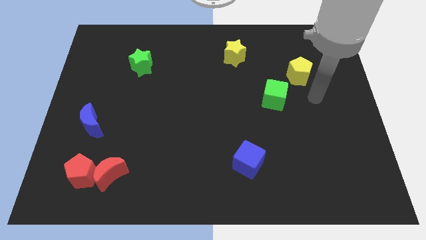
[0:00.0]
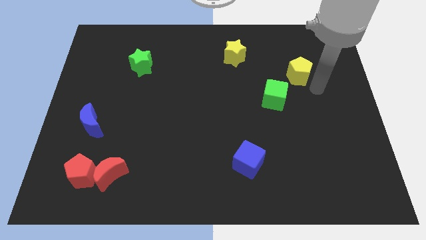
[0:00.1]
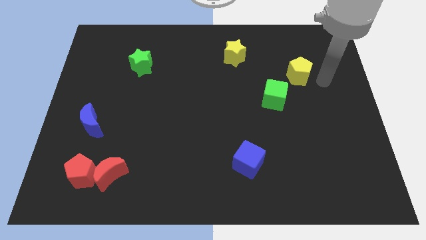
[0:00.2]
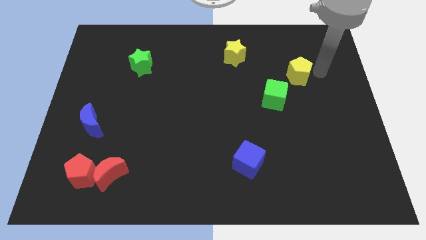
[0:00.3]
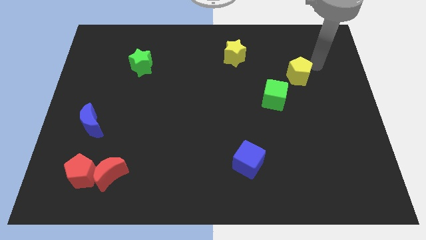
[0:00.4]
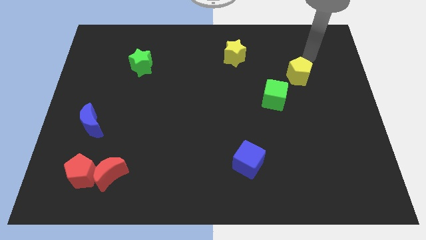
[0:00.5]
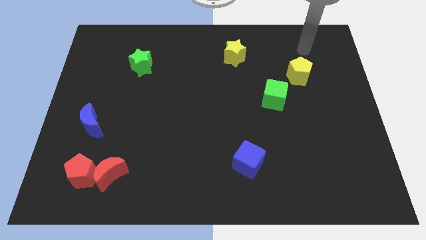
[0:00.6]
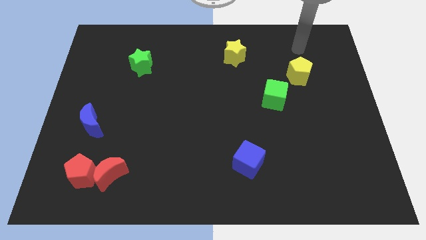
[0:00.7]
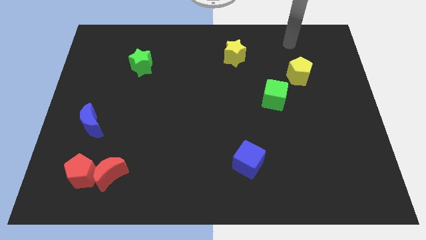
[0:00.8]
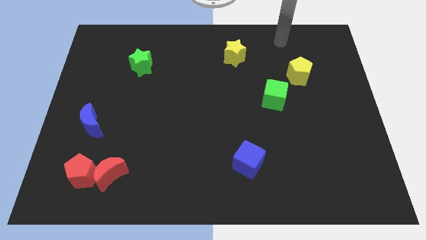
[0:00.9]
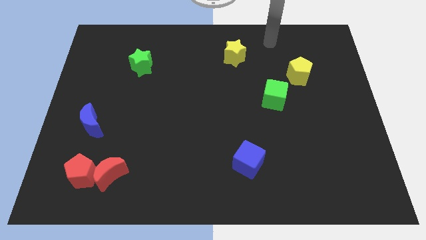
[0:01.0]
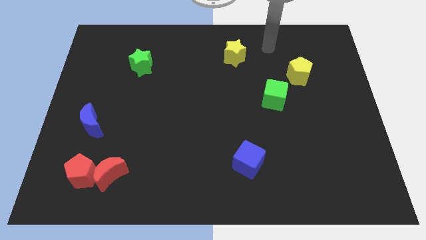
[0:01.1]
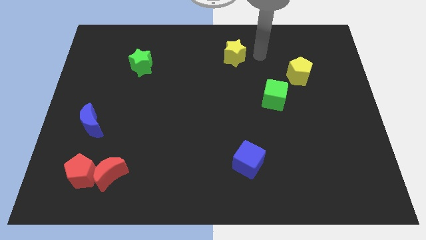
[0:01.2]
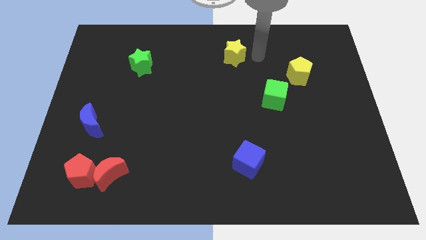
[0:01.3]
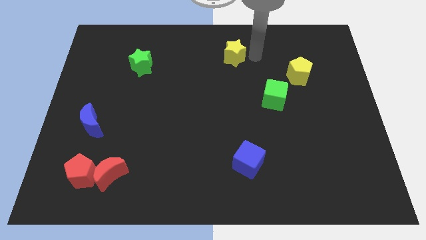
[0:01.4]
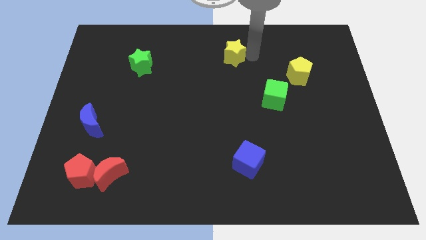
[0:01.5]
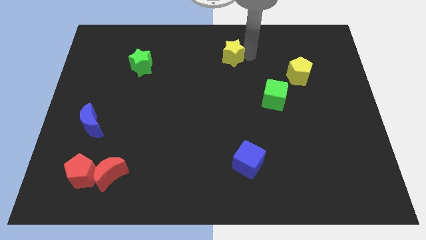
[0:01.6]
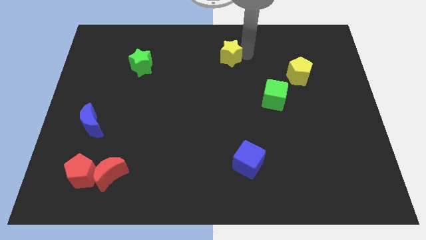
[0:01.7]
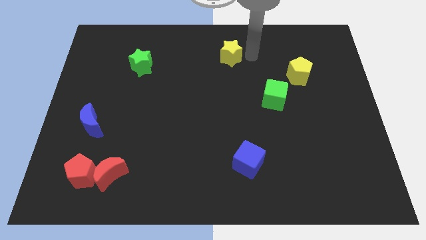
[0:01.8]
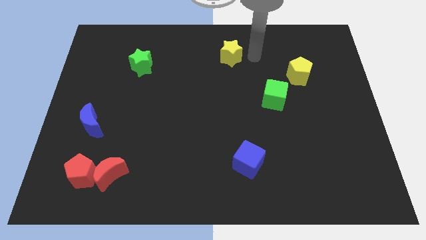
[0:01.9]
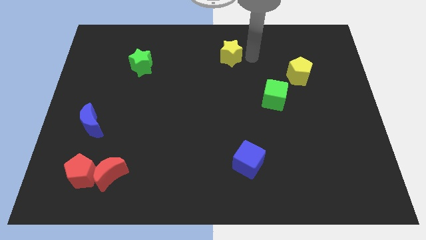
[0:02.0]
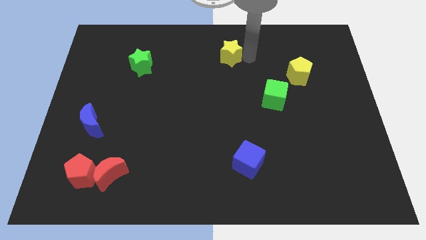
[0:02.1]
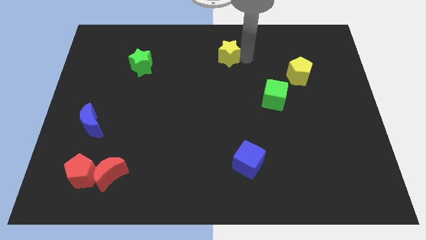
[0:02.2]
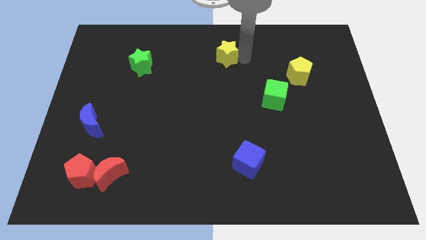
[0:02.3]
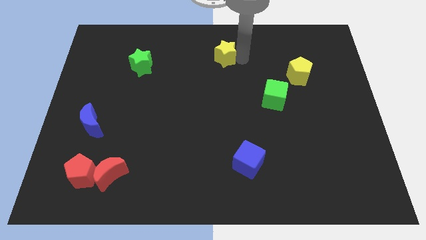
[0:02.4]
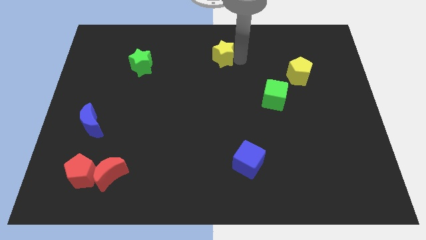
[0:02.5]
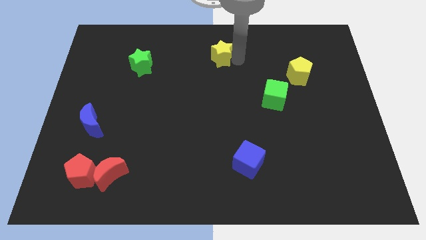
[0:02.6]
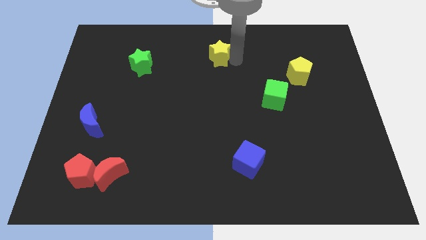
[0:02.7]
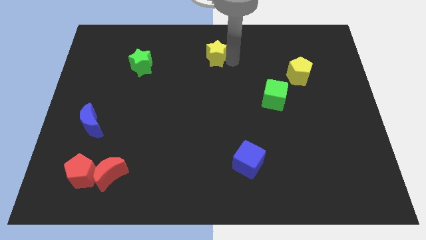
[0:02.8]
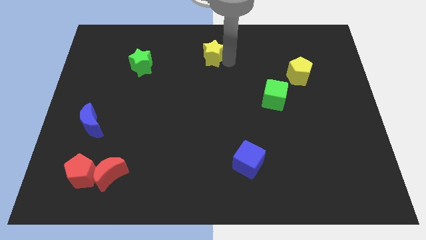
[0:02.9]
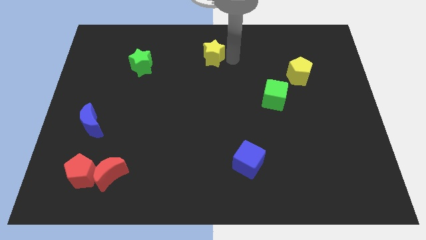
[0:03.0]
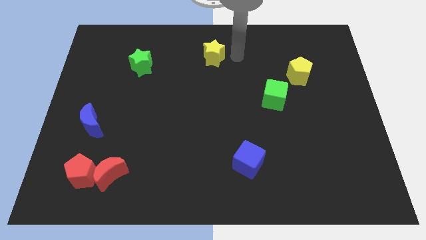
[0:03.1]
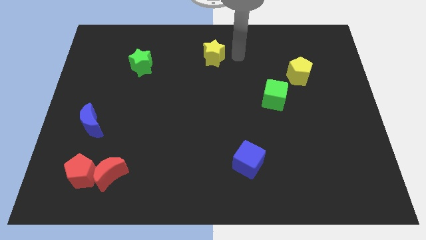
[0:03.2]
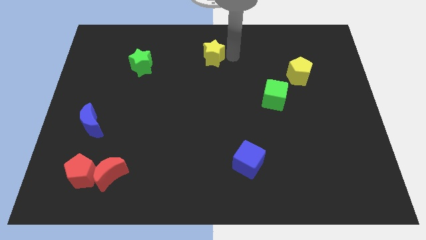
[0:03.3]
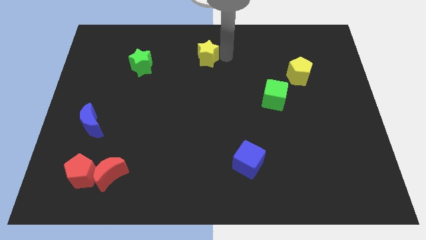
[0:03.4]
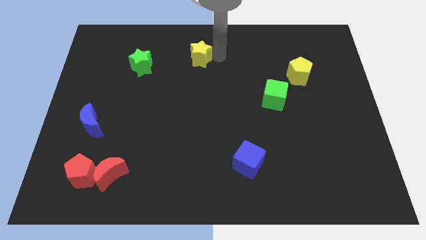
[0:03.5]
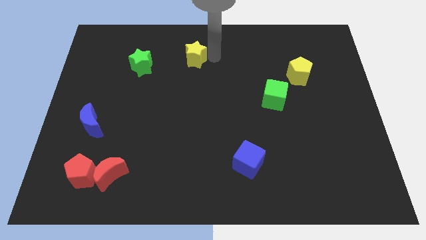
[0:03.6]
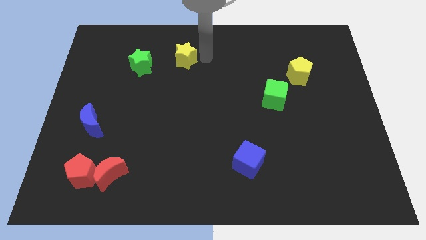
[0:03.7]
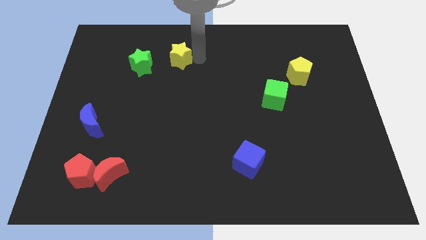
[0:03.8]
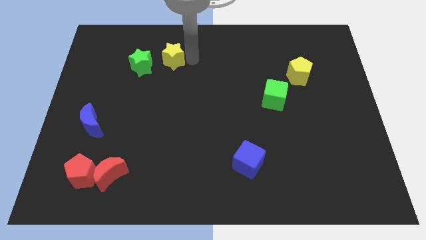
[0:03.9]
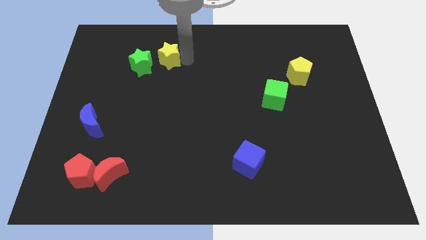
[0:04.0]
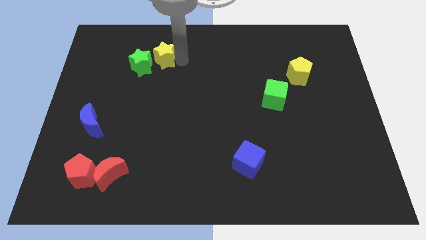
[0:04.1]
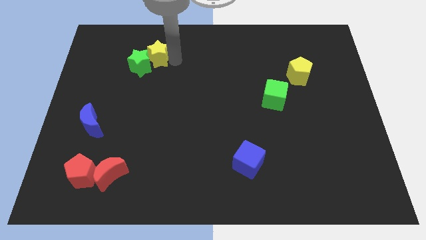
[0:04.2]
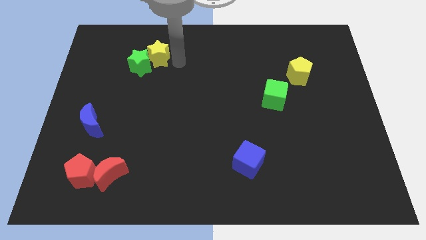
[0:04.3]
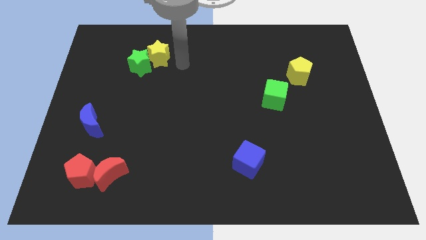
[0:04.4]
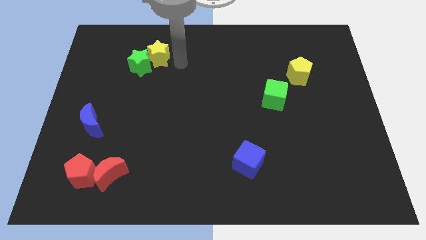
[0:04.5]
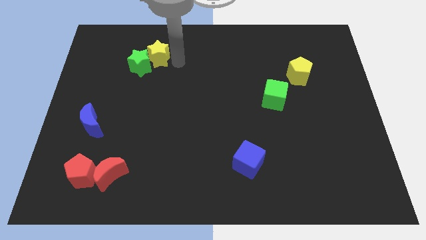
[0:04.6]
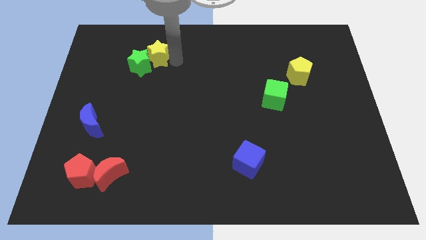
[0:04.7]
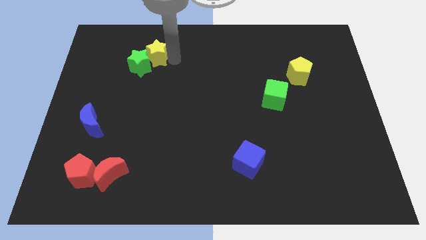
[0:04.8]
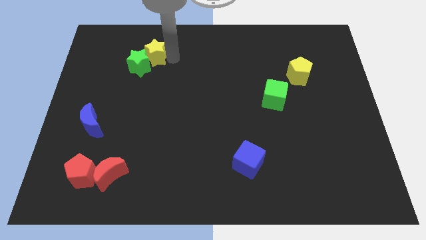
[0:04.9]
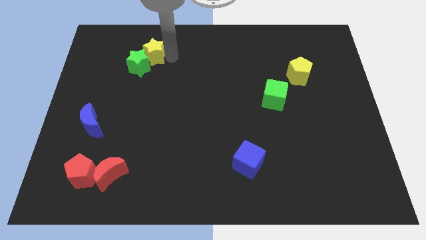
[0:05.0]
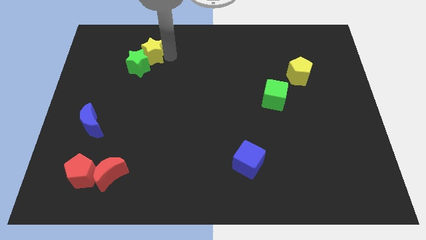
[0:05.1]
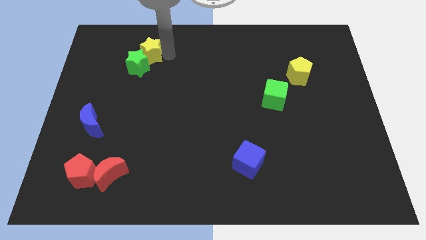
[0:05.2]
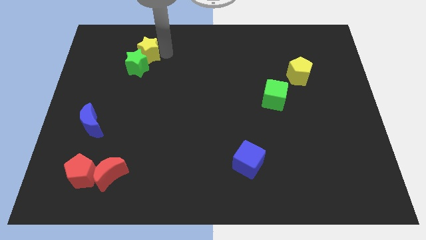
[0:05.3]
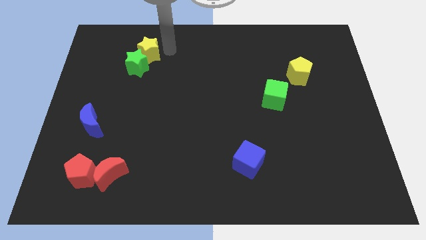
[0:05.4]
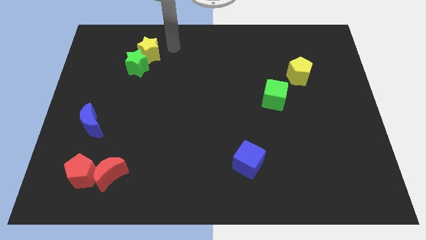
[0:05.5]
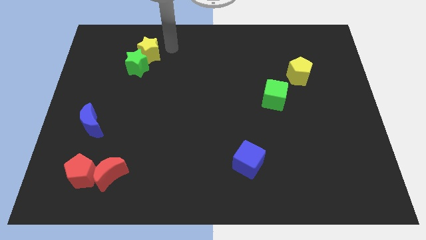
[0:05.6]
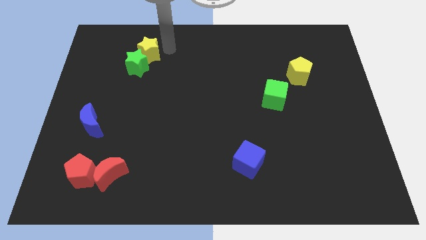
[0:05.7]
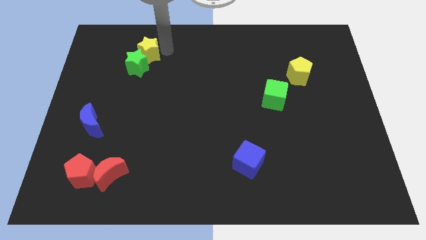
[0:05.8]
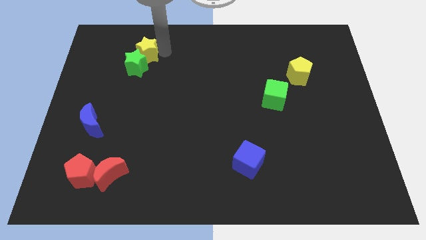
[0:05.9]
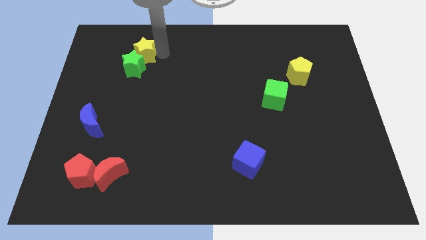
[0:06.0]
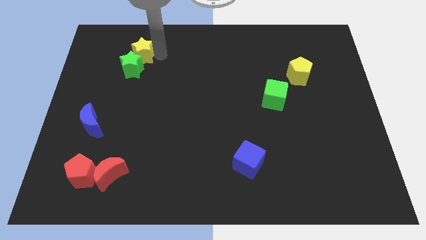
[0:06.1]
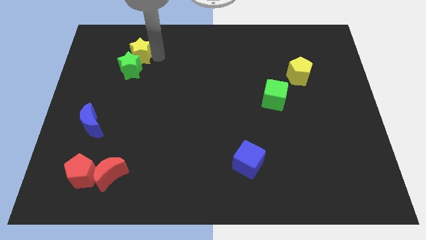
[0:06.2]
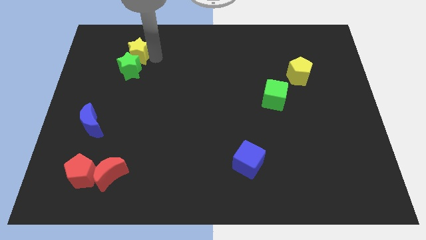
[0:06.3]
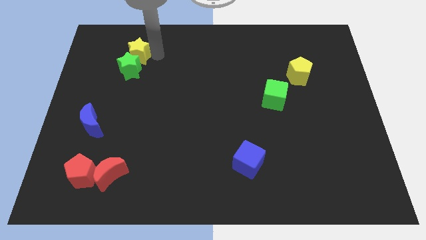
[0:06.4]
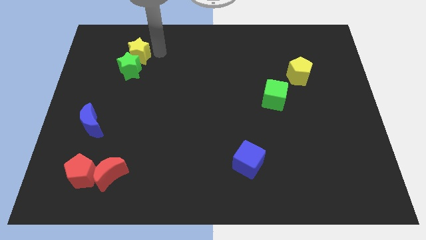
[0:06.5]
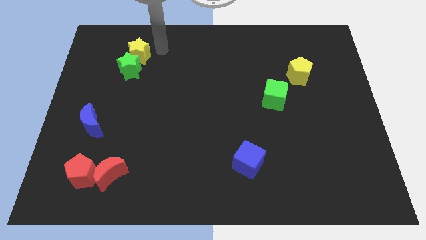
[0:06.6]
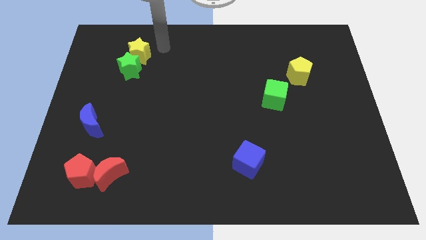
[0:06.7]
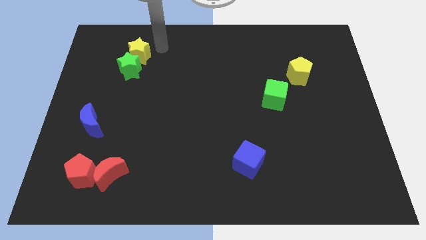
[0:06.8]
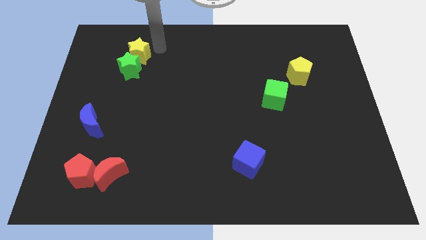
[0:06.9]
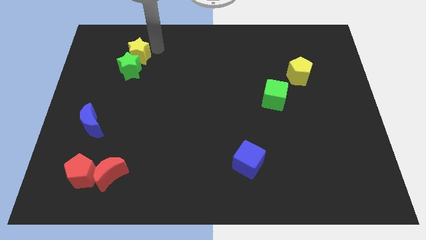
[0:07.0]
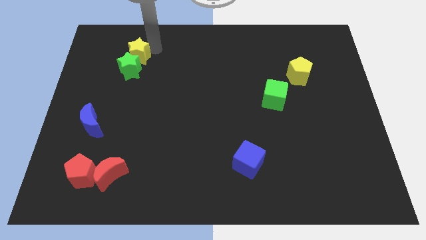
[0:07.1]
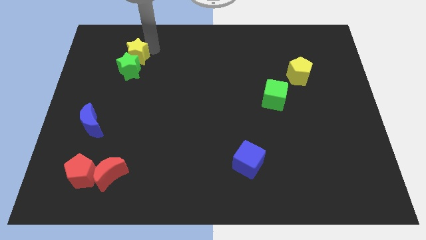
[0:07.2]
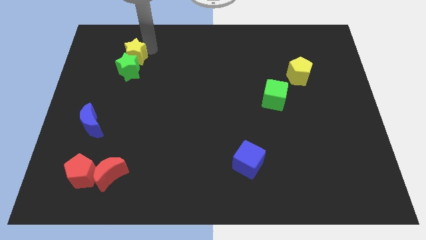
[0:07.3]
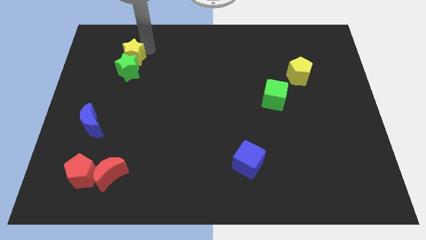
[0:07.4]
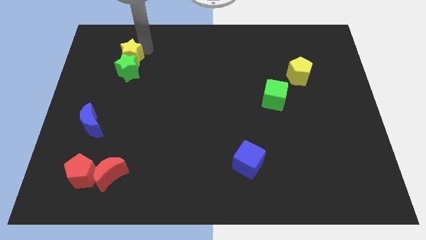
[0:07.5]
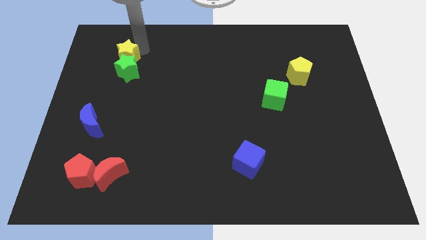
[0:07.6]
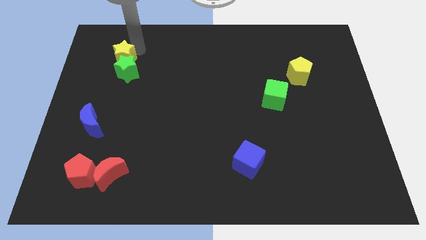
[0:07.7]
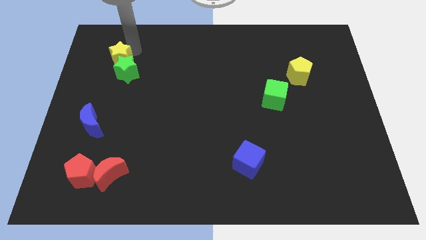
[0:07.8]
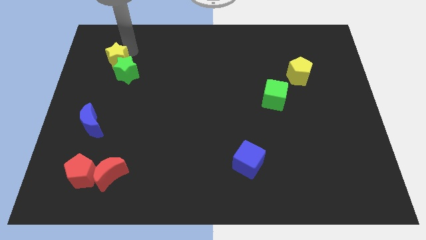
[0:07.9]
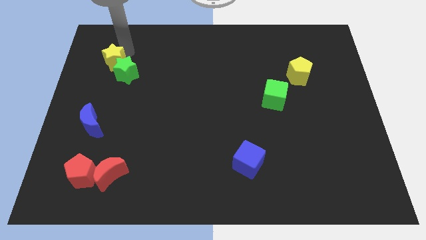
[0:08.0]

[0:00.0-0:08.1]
push the yellow star just left of the green star

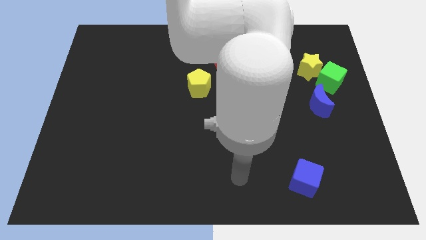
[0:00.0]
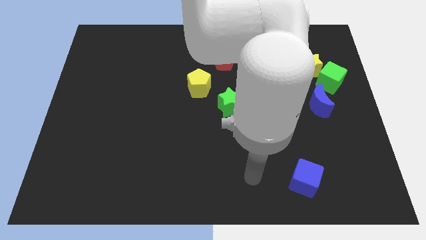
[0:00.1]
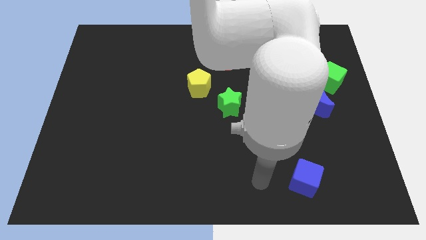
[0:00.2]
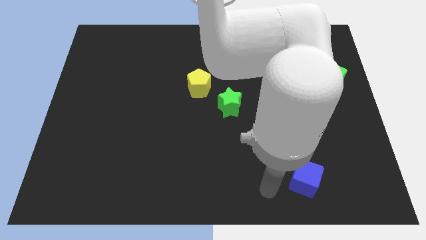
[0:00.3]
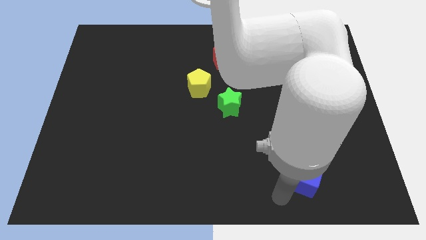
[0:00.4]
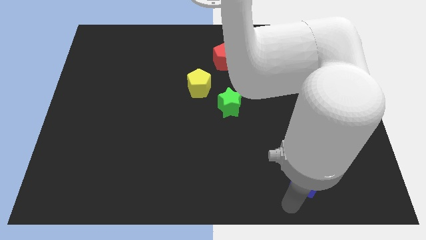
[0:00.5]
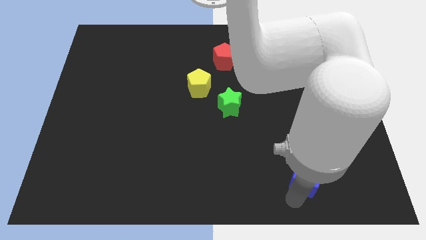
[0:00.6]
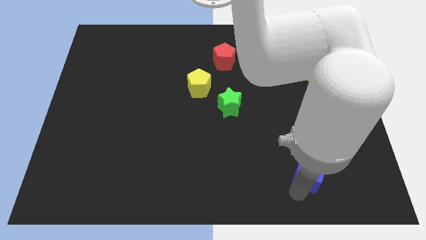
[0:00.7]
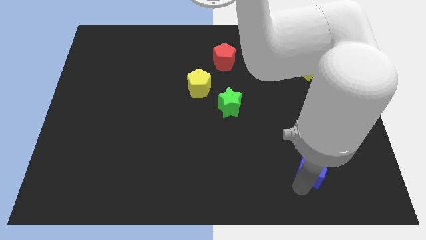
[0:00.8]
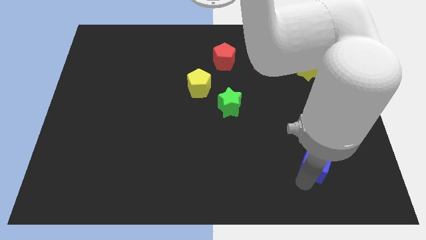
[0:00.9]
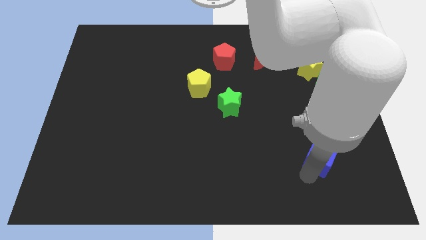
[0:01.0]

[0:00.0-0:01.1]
put the blue cube to the bottom of the blue moon
